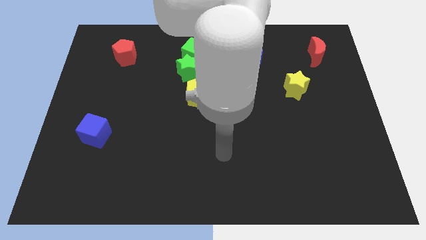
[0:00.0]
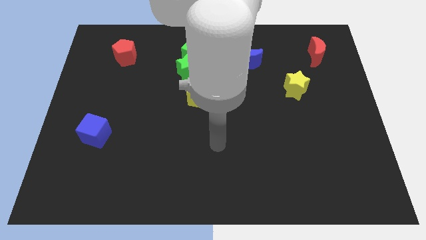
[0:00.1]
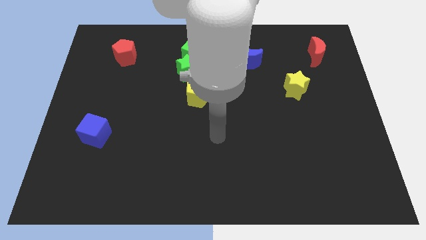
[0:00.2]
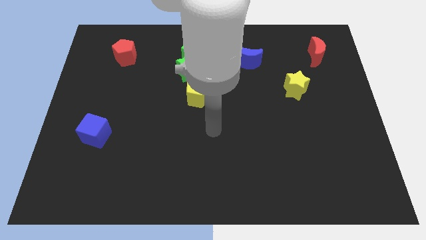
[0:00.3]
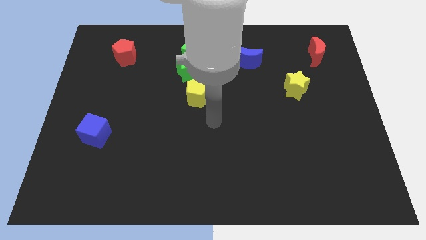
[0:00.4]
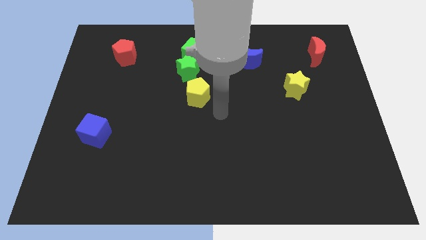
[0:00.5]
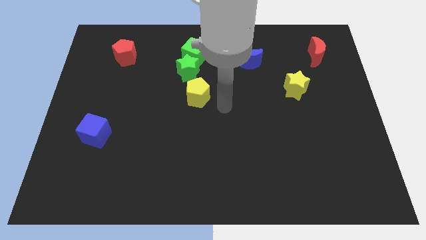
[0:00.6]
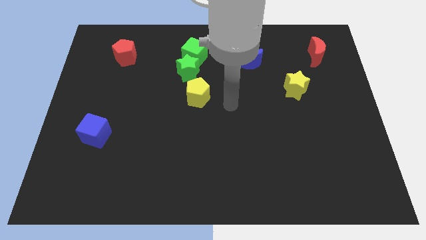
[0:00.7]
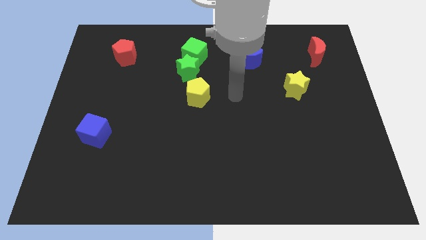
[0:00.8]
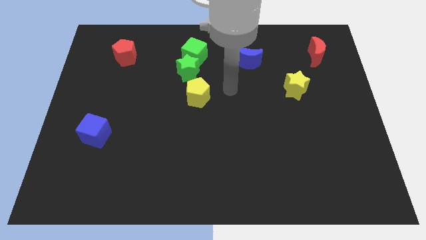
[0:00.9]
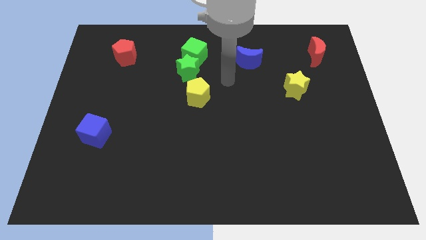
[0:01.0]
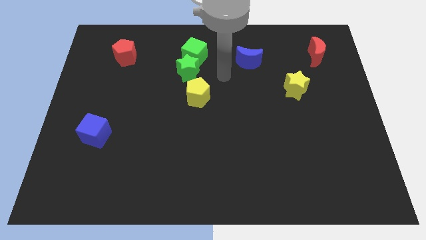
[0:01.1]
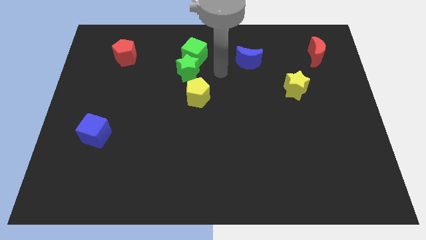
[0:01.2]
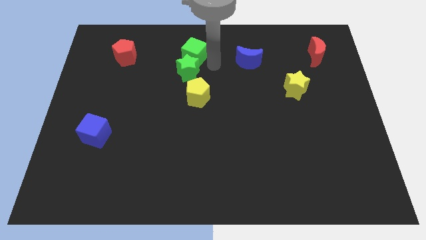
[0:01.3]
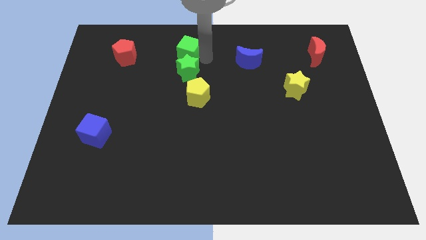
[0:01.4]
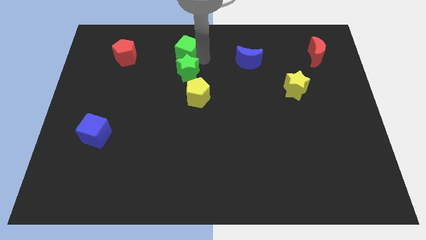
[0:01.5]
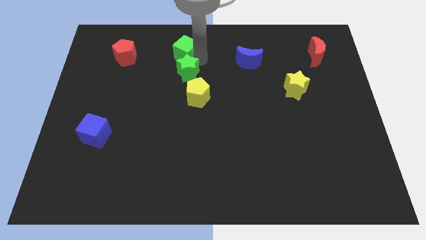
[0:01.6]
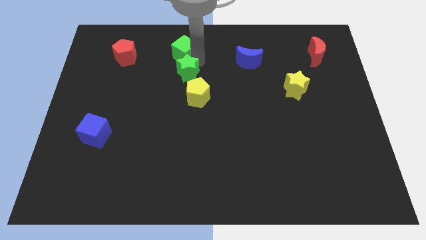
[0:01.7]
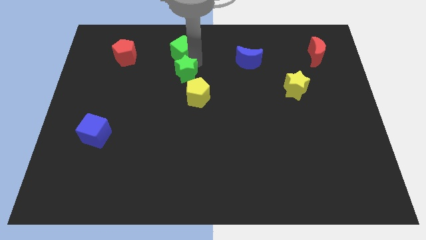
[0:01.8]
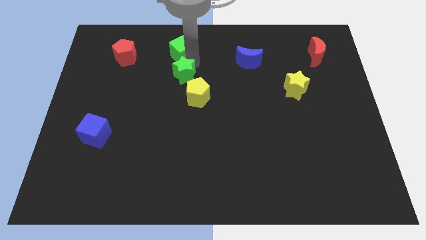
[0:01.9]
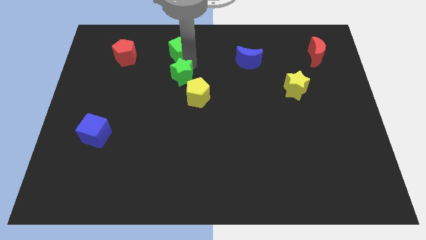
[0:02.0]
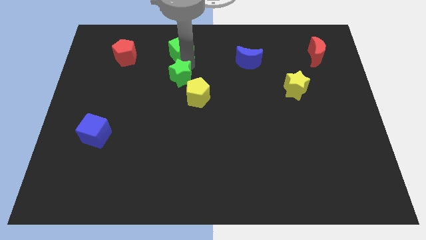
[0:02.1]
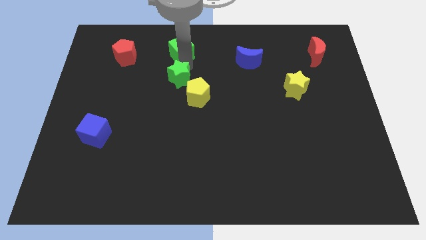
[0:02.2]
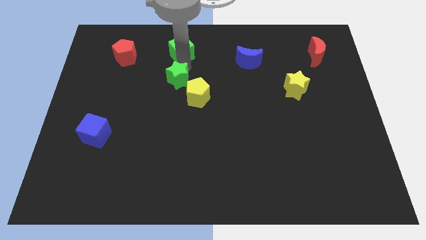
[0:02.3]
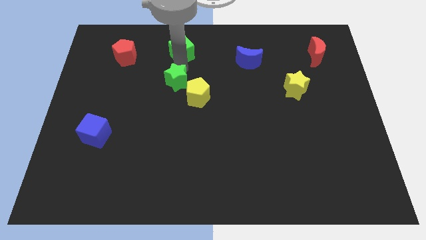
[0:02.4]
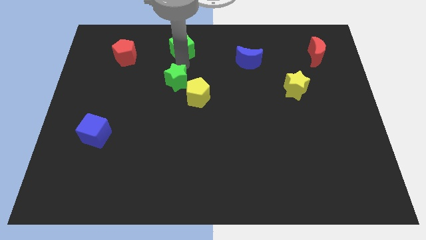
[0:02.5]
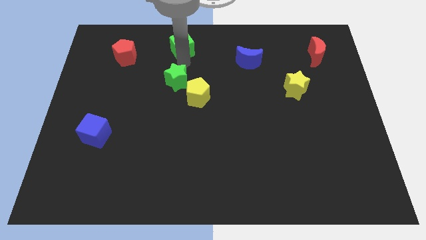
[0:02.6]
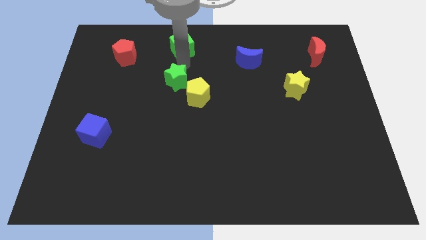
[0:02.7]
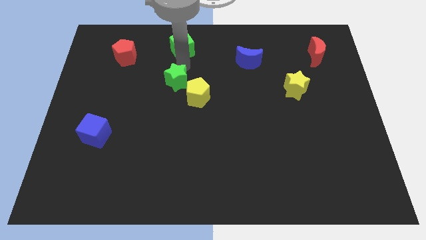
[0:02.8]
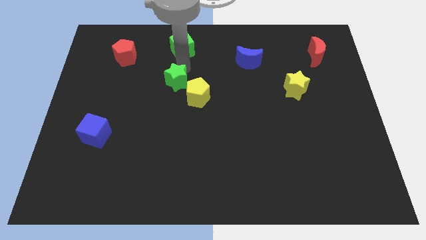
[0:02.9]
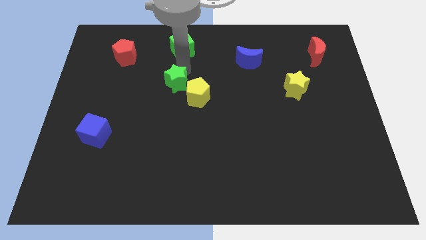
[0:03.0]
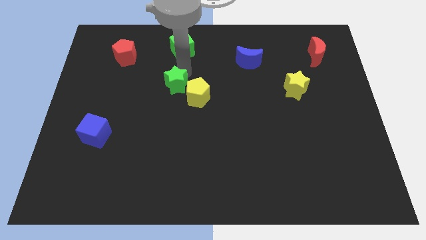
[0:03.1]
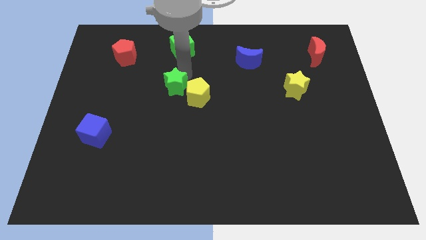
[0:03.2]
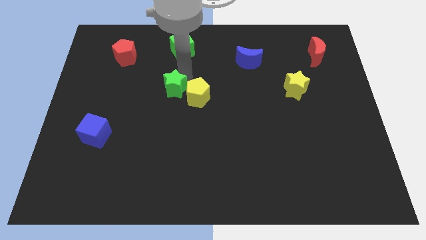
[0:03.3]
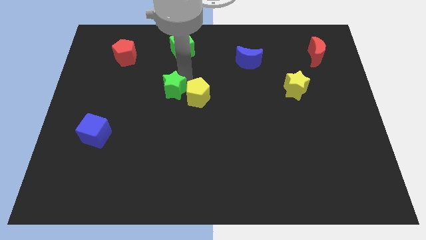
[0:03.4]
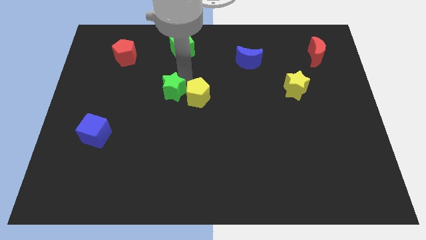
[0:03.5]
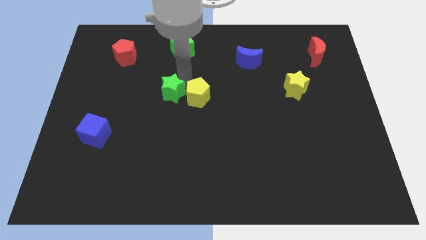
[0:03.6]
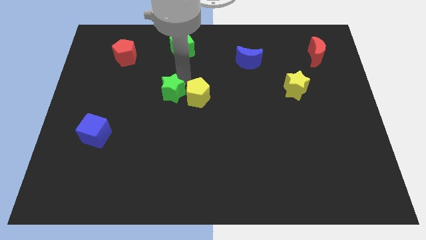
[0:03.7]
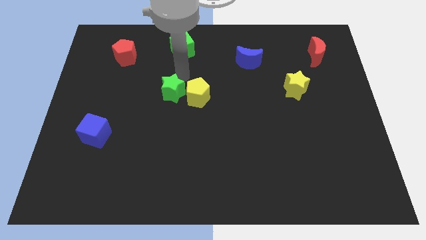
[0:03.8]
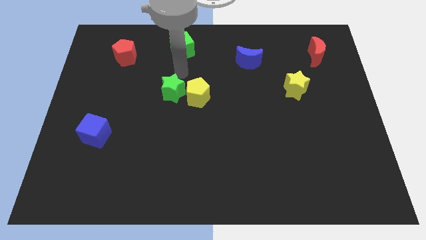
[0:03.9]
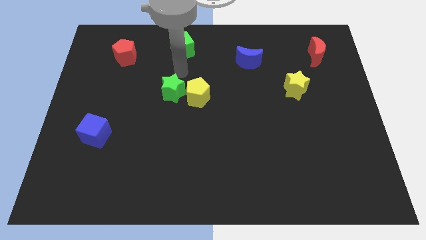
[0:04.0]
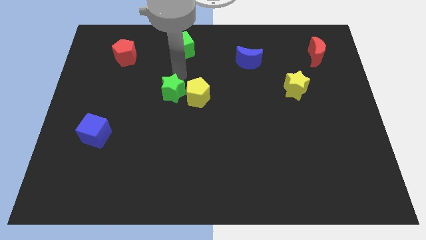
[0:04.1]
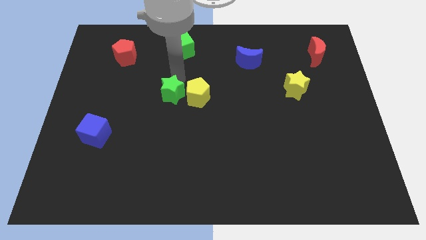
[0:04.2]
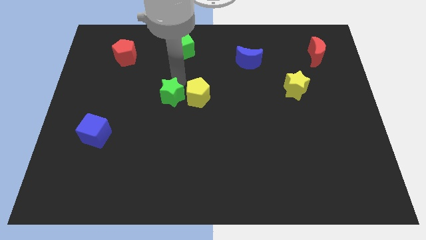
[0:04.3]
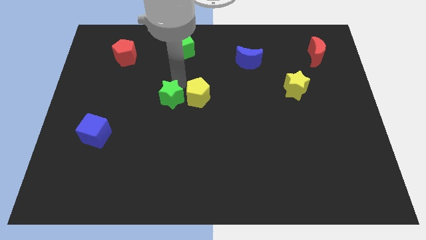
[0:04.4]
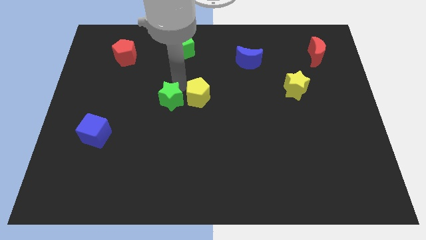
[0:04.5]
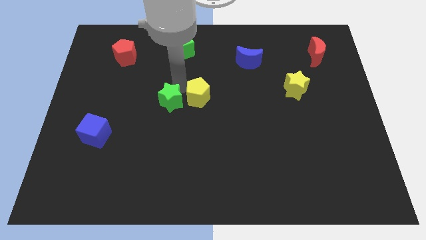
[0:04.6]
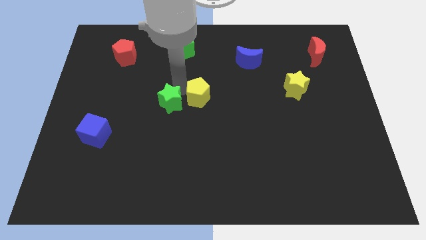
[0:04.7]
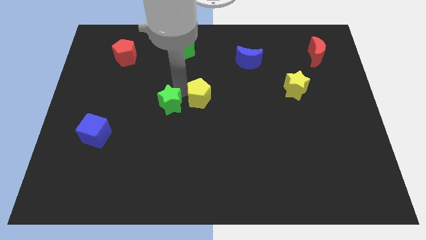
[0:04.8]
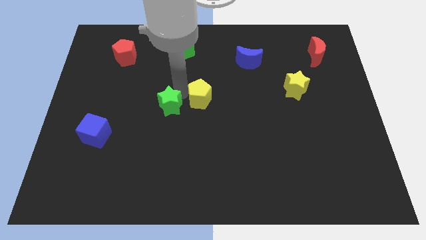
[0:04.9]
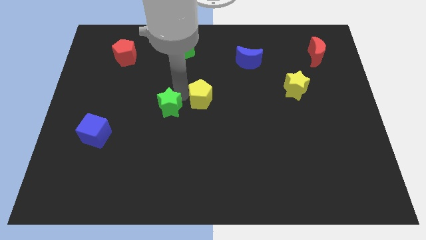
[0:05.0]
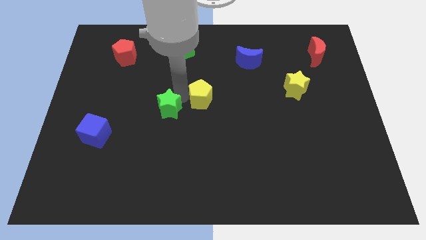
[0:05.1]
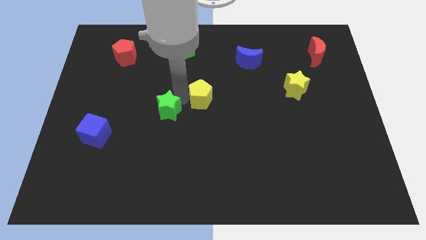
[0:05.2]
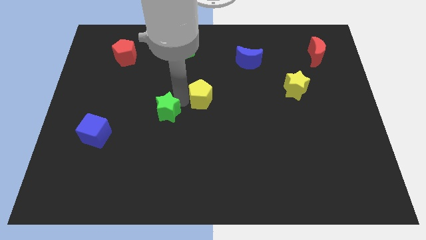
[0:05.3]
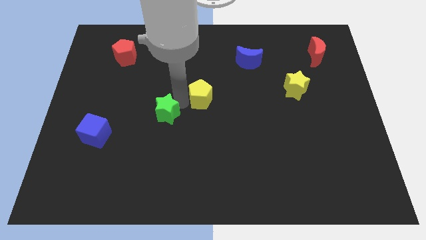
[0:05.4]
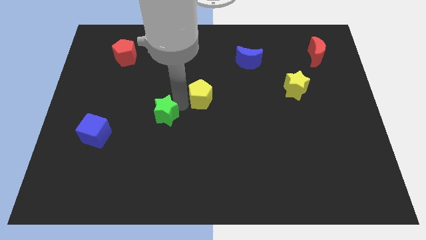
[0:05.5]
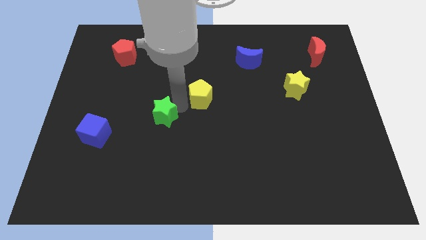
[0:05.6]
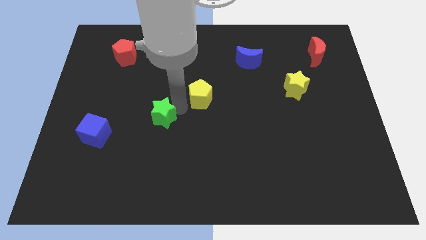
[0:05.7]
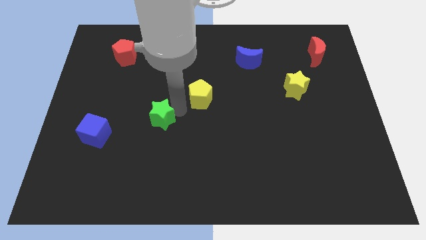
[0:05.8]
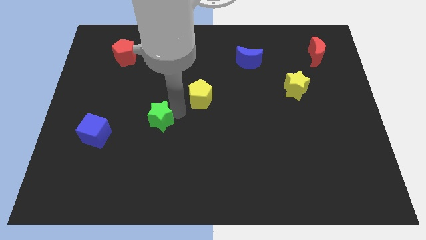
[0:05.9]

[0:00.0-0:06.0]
move the green star right of the blue cube

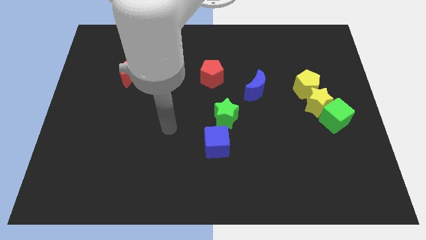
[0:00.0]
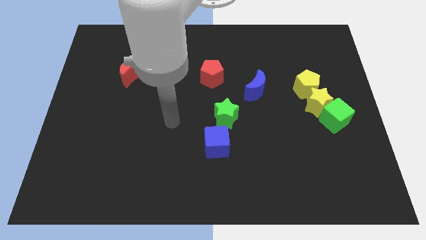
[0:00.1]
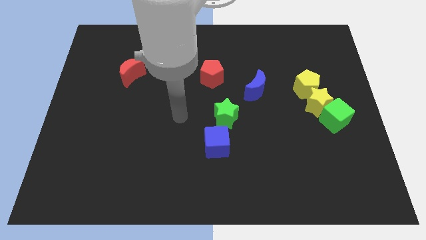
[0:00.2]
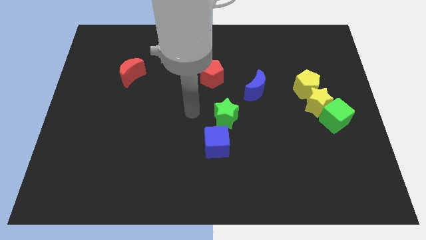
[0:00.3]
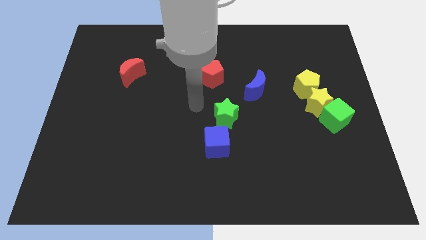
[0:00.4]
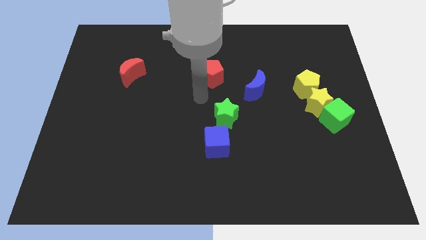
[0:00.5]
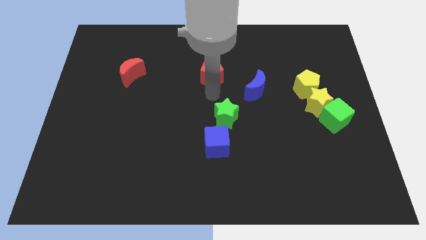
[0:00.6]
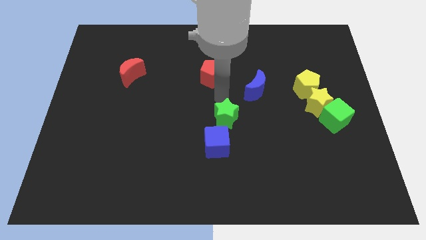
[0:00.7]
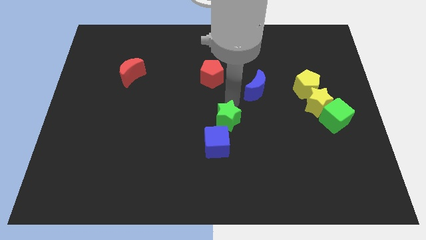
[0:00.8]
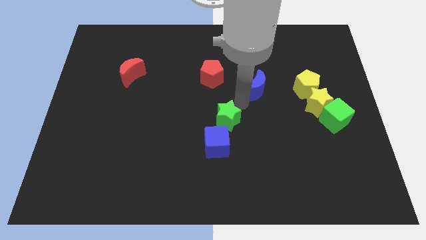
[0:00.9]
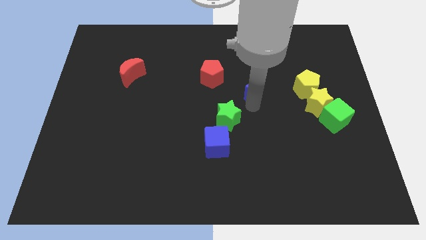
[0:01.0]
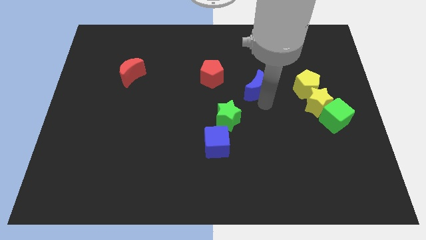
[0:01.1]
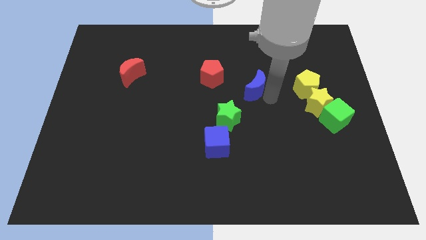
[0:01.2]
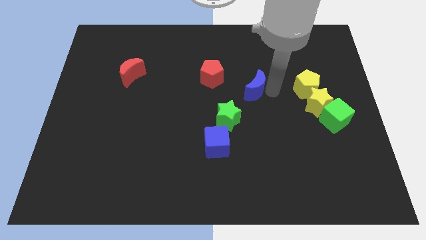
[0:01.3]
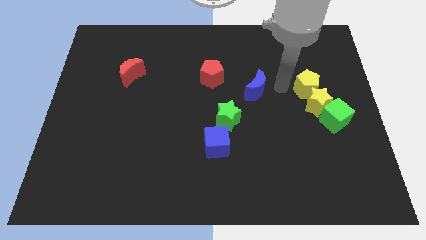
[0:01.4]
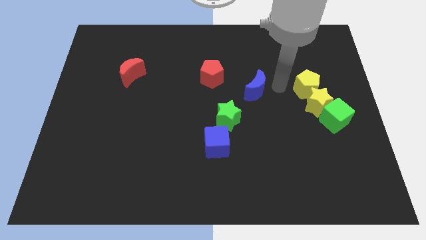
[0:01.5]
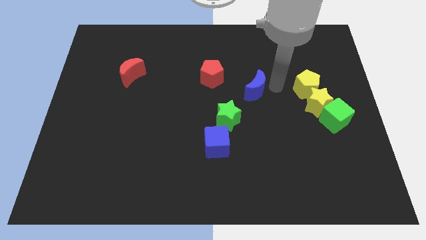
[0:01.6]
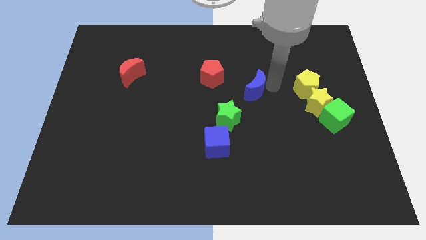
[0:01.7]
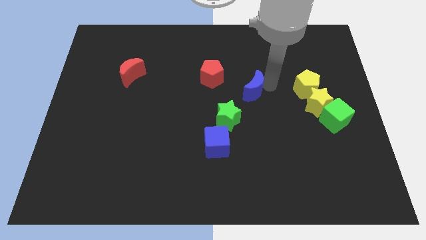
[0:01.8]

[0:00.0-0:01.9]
push the blue moon to the bottom right of the red pentagon

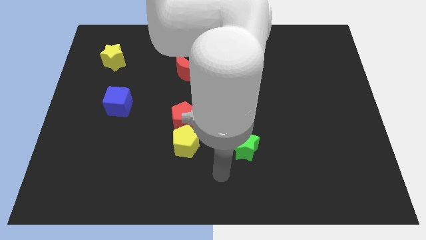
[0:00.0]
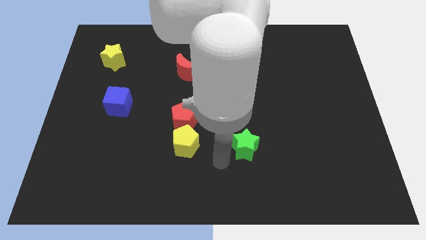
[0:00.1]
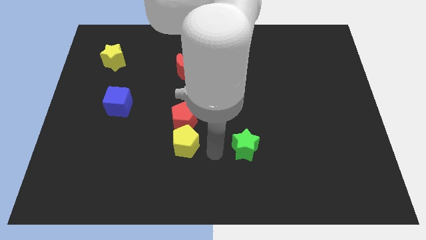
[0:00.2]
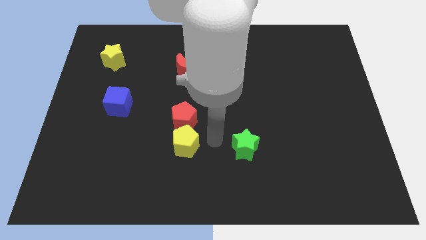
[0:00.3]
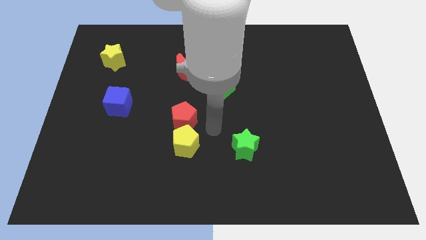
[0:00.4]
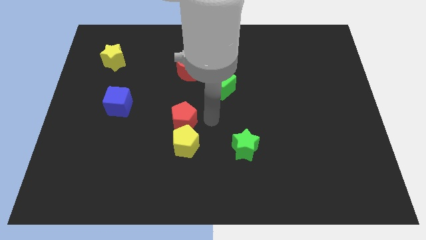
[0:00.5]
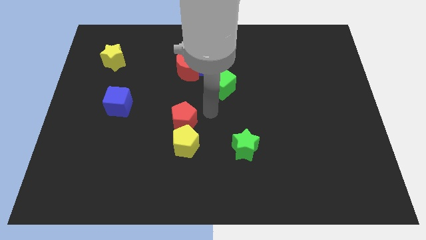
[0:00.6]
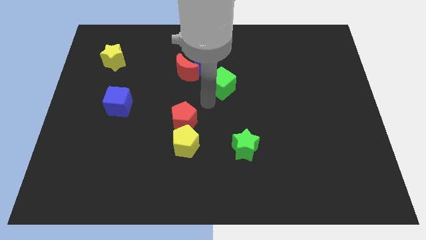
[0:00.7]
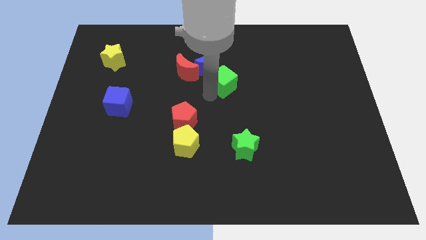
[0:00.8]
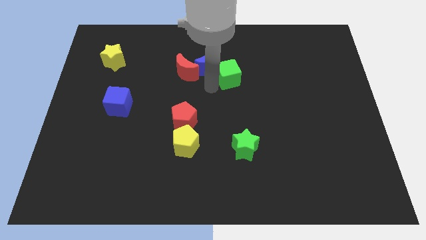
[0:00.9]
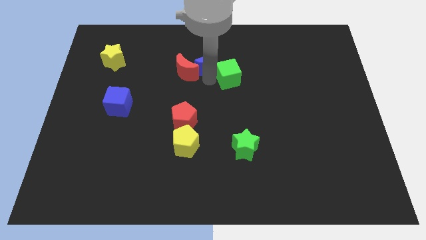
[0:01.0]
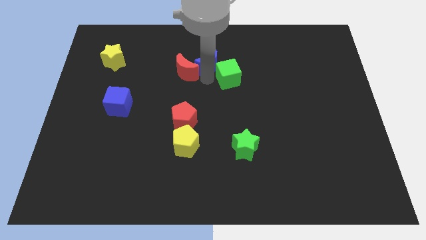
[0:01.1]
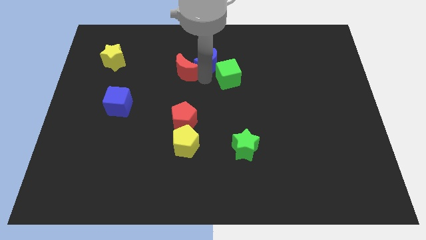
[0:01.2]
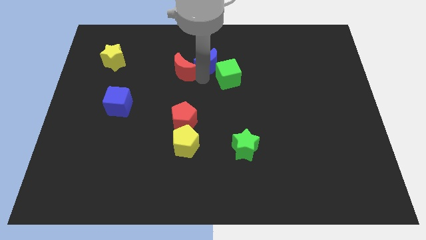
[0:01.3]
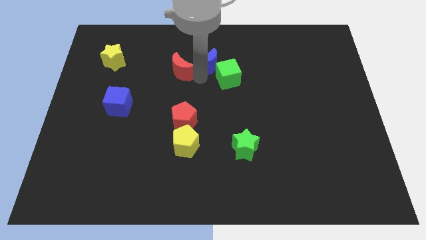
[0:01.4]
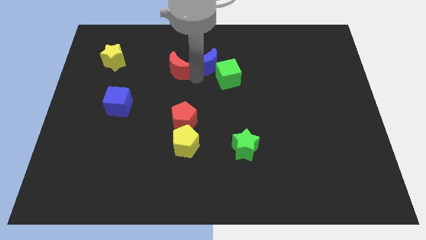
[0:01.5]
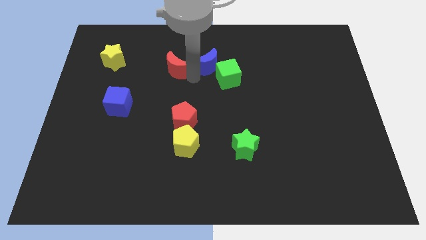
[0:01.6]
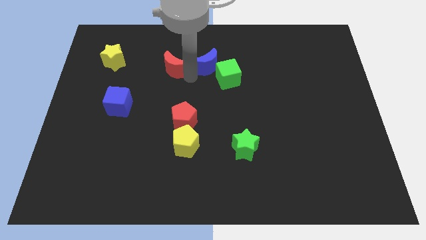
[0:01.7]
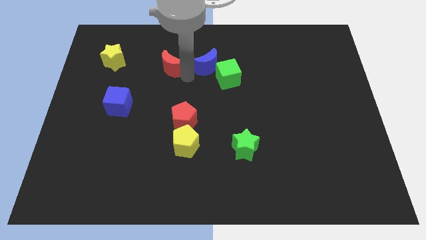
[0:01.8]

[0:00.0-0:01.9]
push the red moon right of the yellow star
